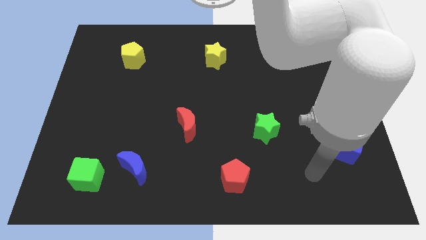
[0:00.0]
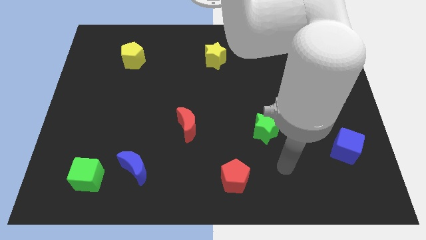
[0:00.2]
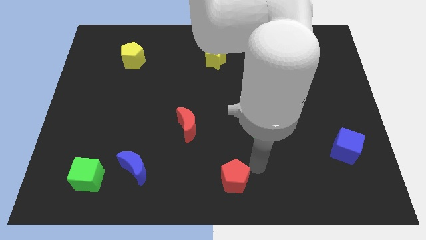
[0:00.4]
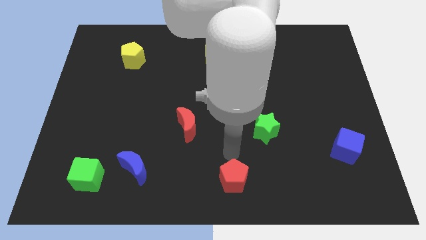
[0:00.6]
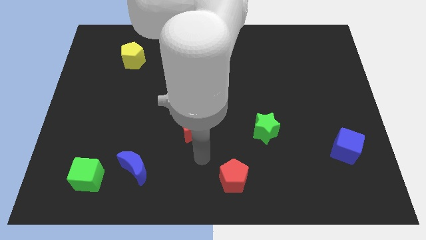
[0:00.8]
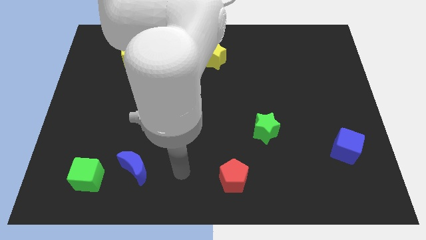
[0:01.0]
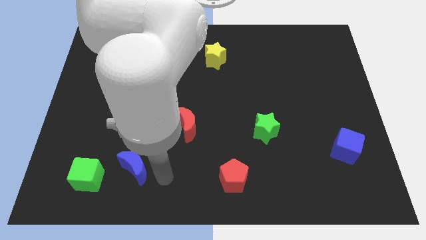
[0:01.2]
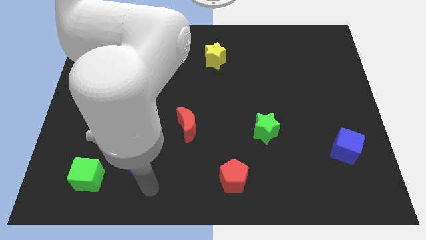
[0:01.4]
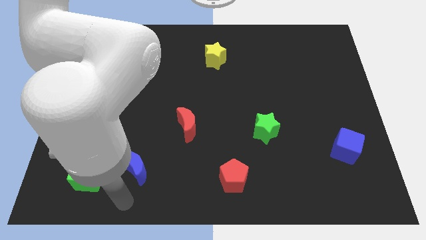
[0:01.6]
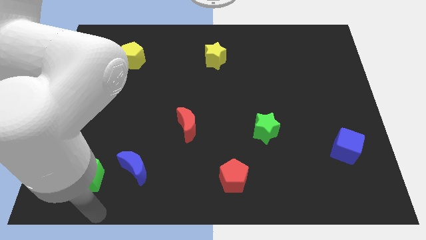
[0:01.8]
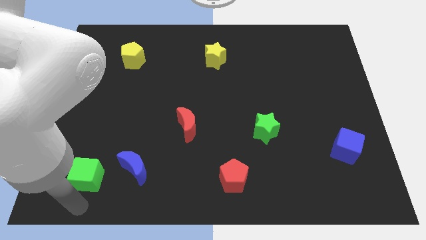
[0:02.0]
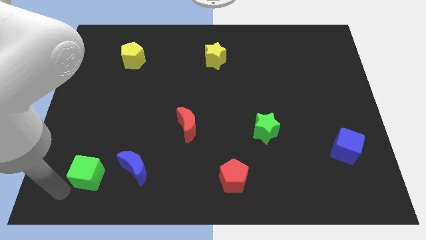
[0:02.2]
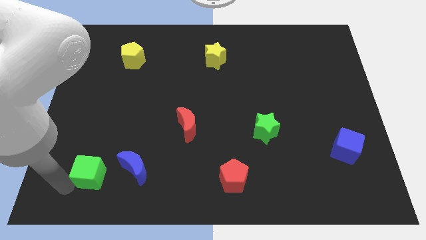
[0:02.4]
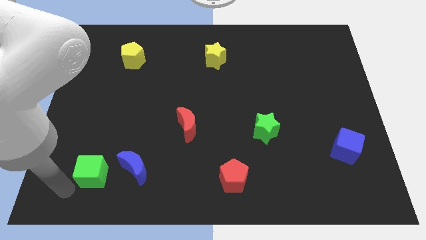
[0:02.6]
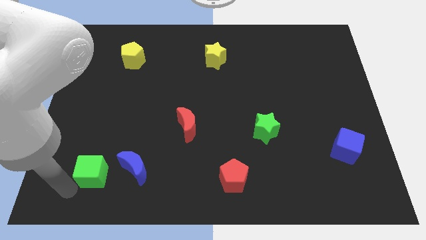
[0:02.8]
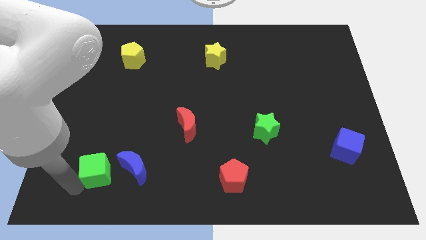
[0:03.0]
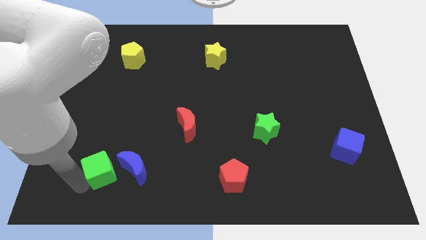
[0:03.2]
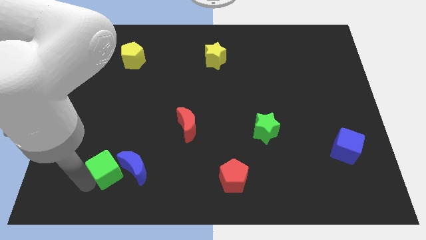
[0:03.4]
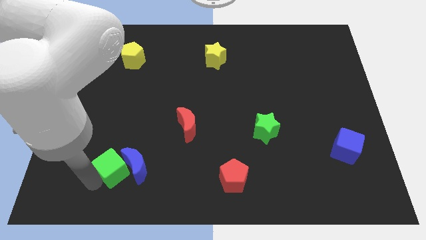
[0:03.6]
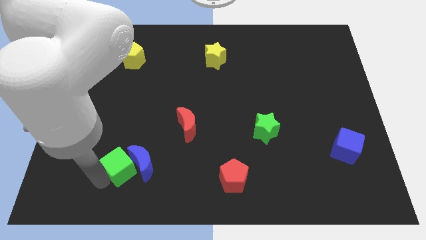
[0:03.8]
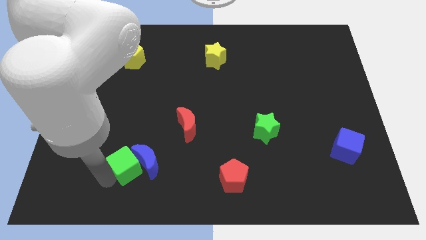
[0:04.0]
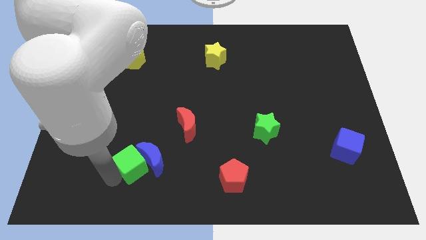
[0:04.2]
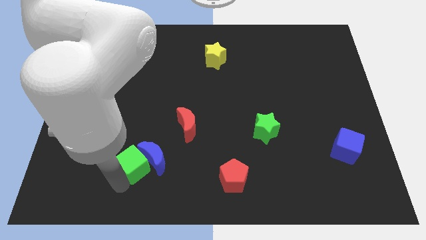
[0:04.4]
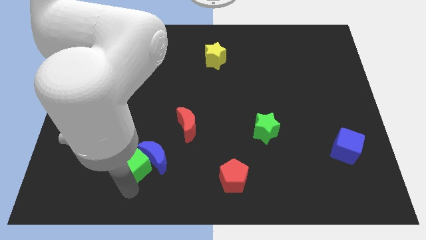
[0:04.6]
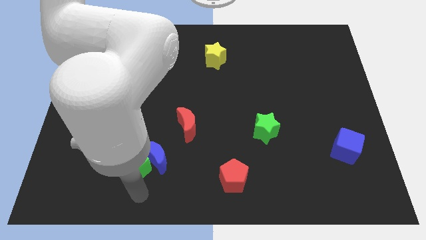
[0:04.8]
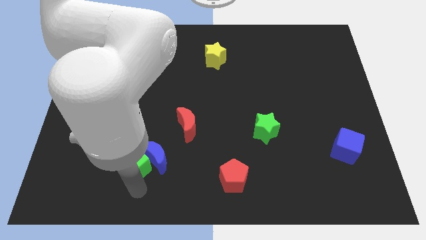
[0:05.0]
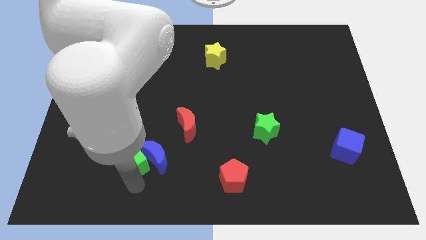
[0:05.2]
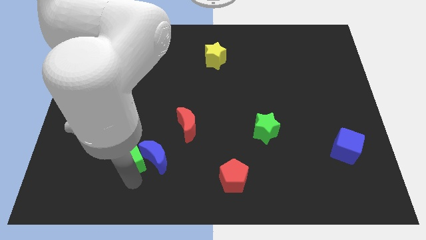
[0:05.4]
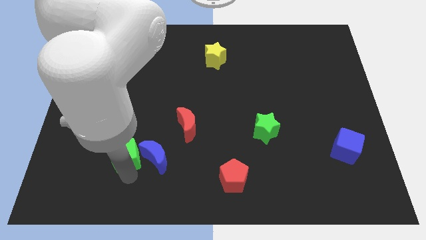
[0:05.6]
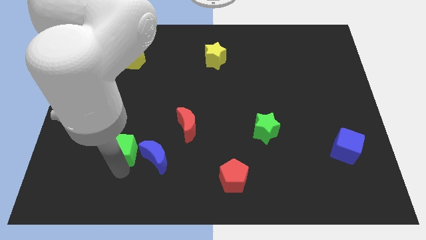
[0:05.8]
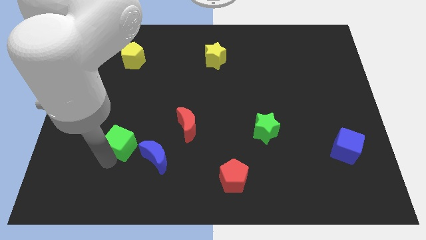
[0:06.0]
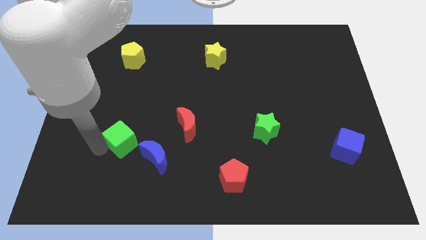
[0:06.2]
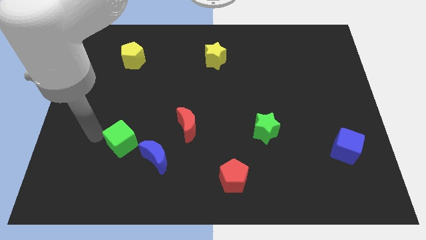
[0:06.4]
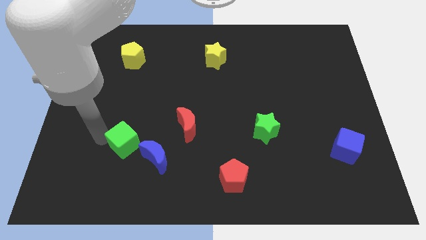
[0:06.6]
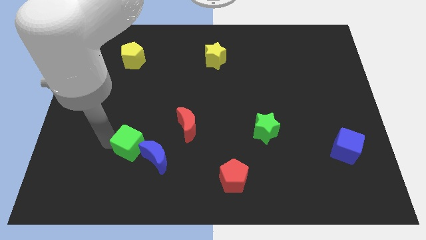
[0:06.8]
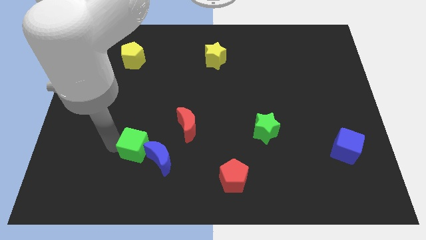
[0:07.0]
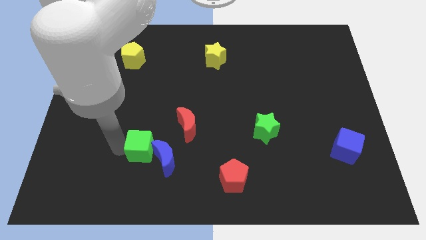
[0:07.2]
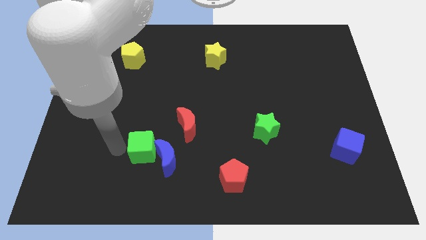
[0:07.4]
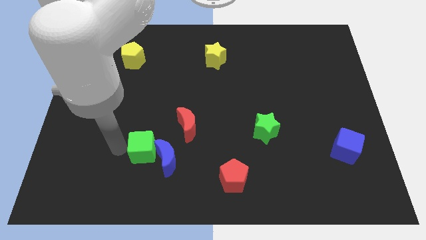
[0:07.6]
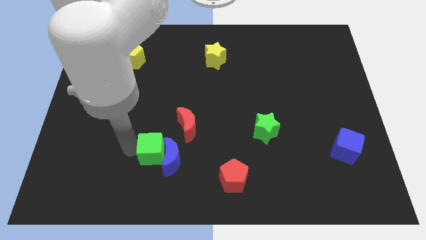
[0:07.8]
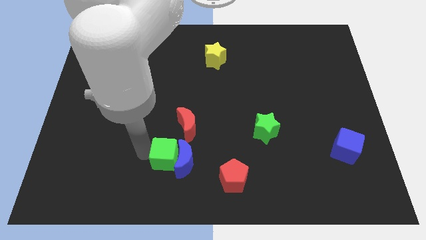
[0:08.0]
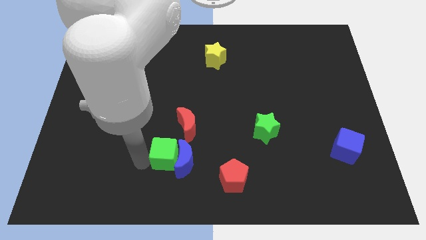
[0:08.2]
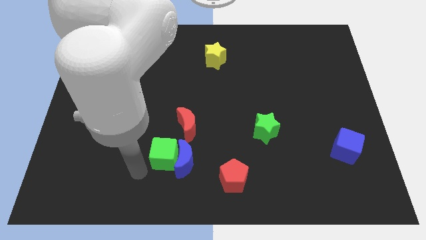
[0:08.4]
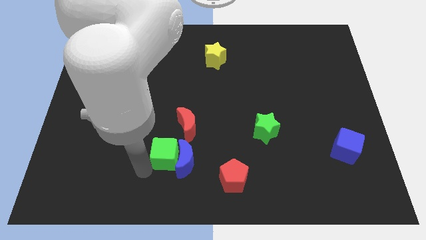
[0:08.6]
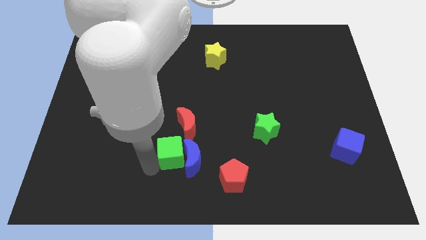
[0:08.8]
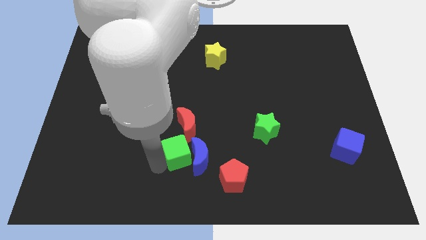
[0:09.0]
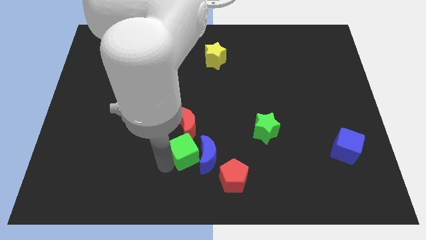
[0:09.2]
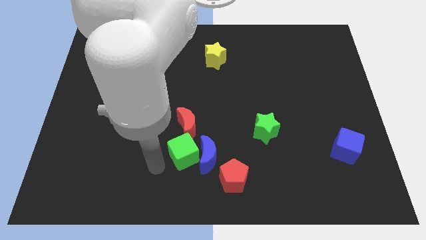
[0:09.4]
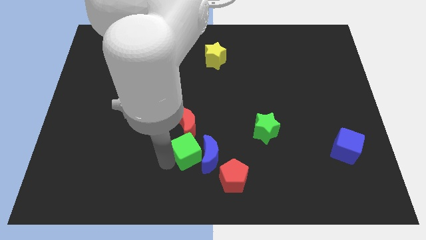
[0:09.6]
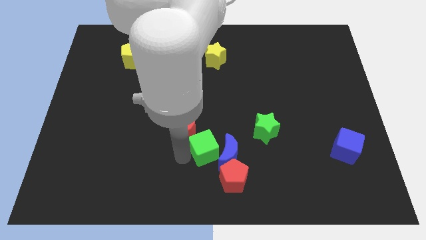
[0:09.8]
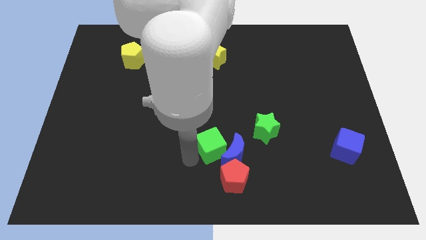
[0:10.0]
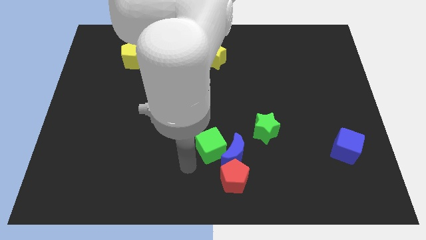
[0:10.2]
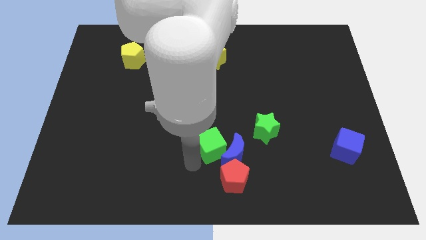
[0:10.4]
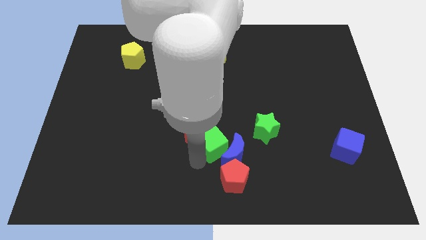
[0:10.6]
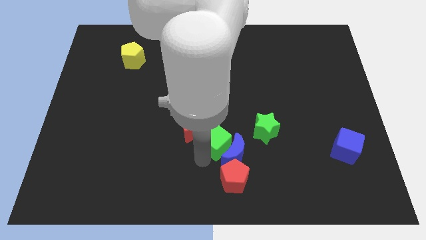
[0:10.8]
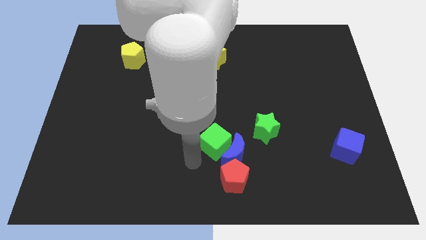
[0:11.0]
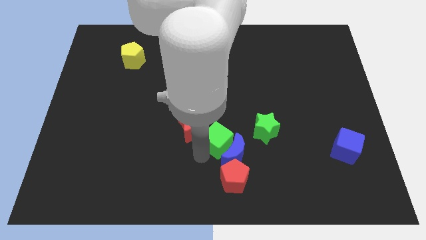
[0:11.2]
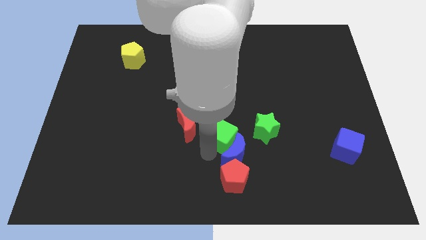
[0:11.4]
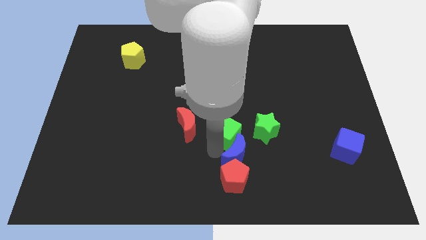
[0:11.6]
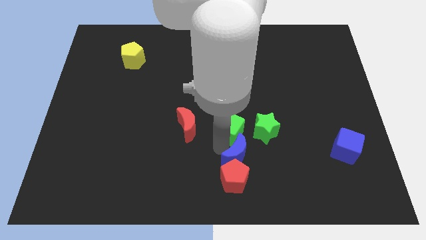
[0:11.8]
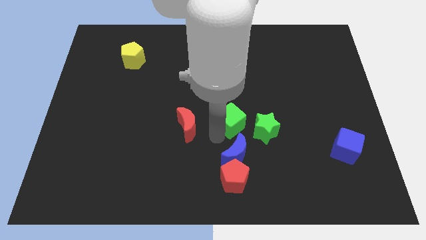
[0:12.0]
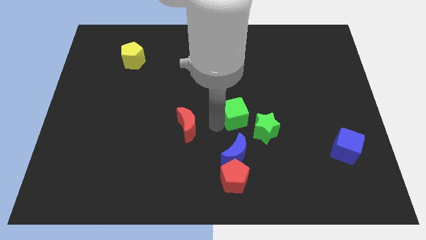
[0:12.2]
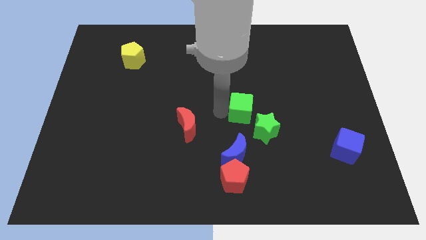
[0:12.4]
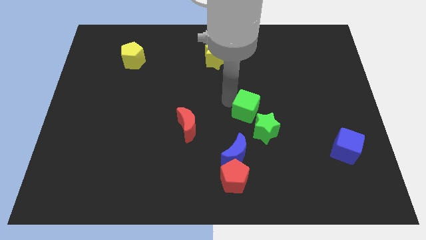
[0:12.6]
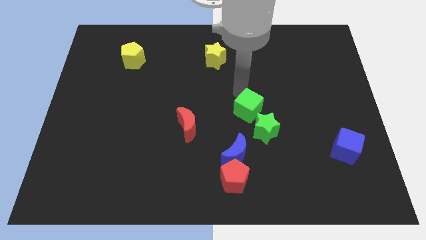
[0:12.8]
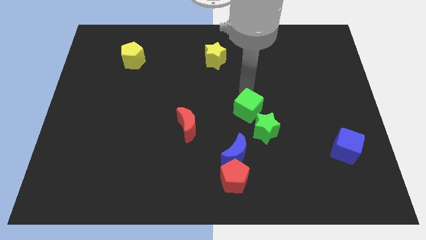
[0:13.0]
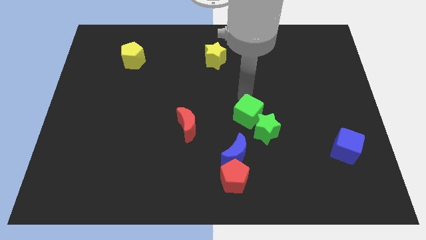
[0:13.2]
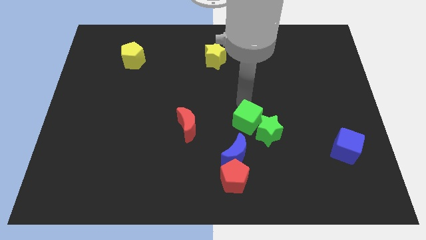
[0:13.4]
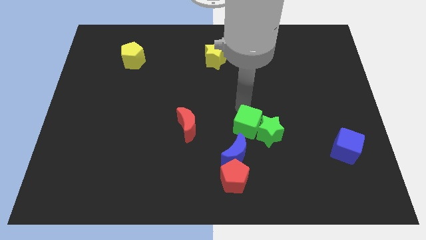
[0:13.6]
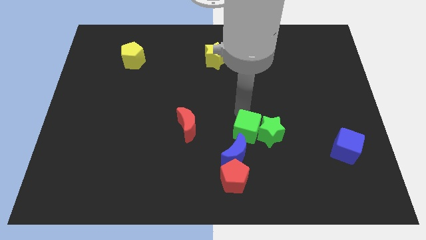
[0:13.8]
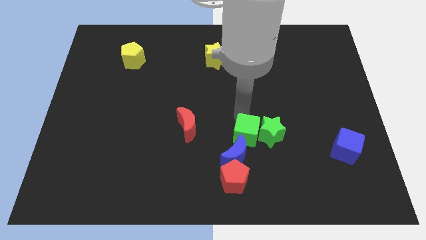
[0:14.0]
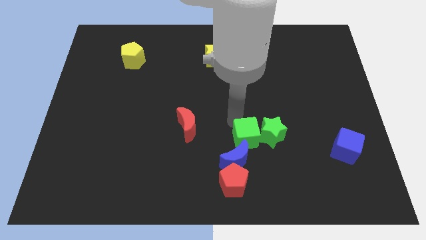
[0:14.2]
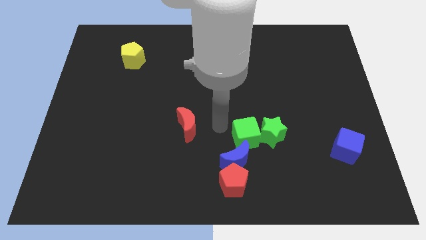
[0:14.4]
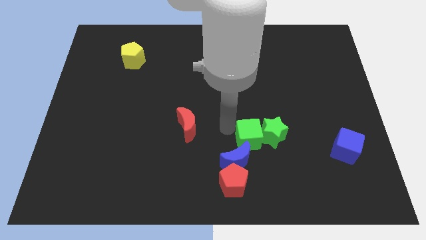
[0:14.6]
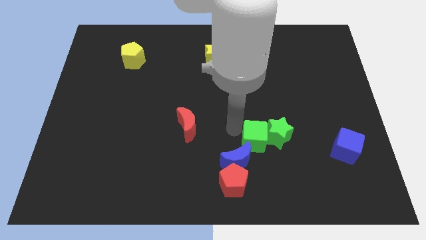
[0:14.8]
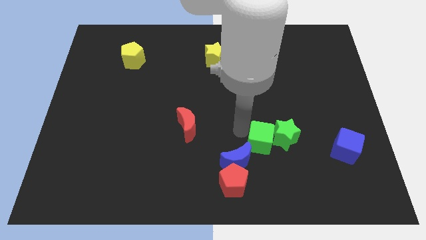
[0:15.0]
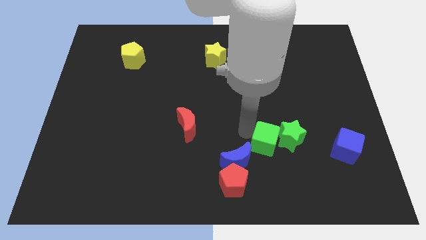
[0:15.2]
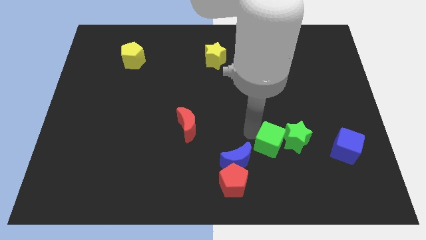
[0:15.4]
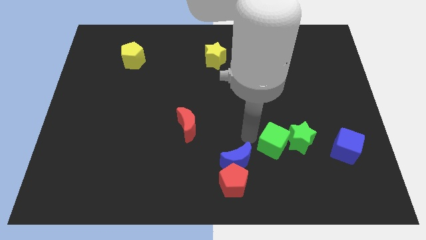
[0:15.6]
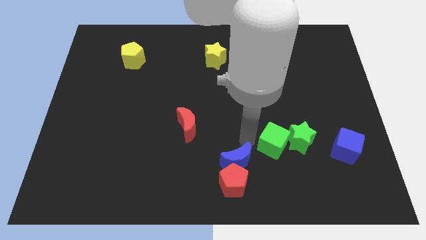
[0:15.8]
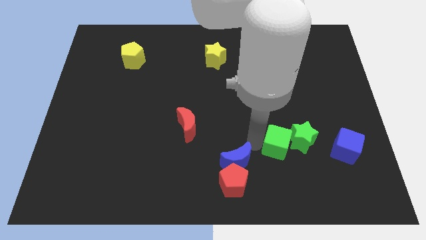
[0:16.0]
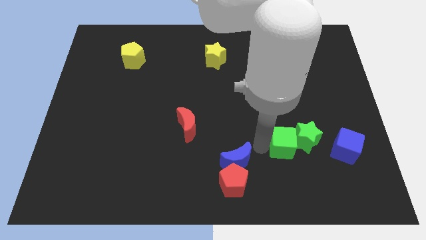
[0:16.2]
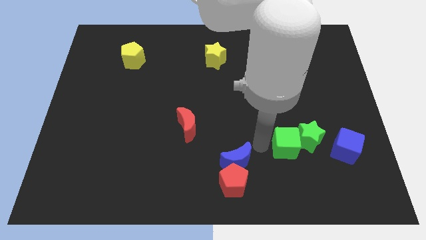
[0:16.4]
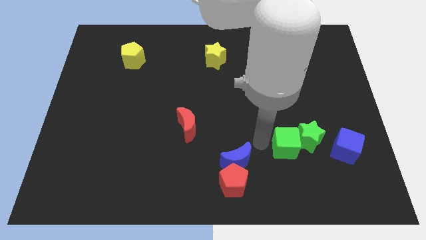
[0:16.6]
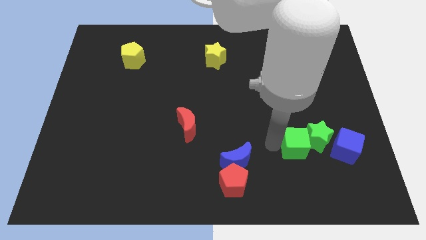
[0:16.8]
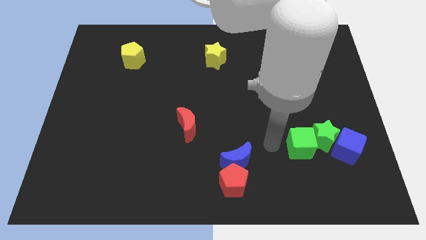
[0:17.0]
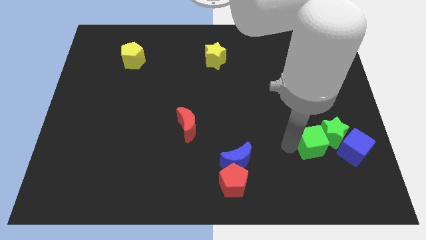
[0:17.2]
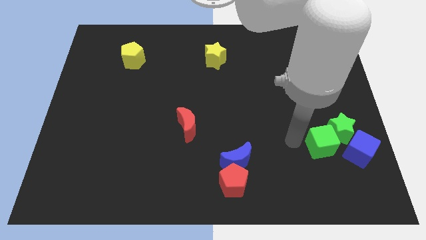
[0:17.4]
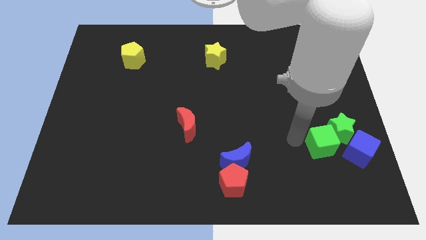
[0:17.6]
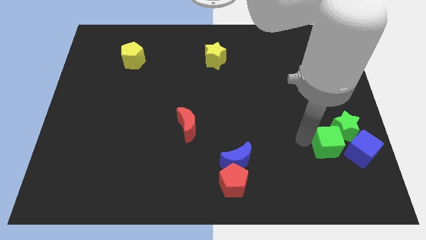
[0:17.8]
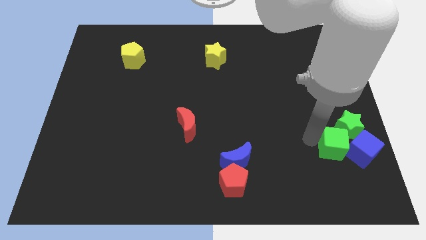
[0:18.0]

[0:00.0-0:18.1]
slide the green cube towards the blue cube
